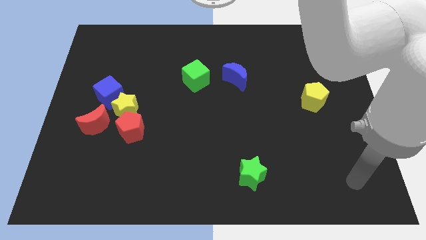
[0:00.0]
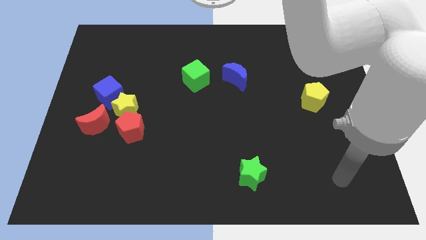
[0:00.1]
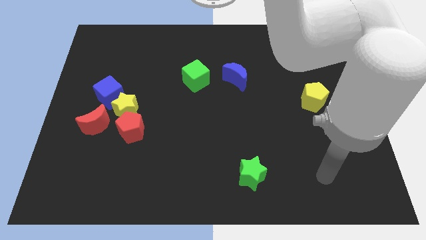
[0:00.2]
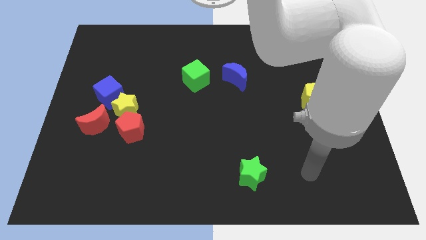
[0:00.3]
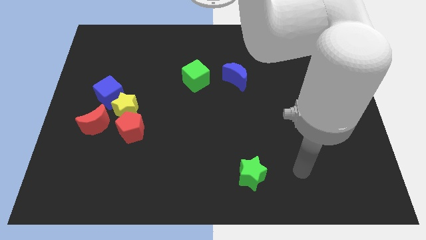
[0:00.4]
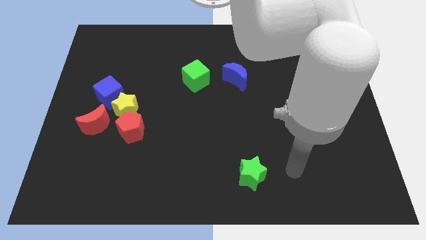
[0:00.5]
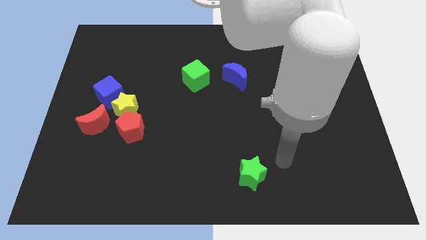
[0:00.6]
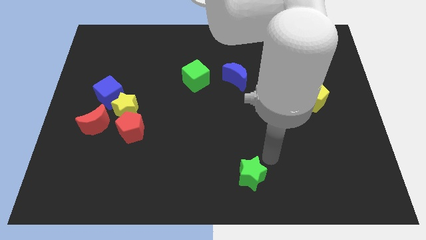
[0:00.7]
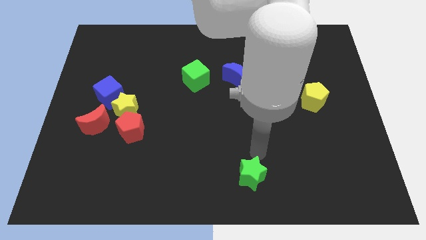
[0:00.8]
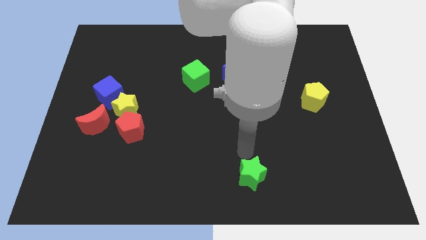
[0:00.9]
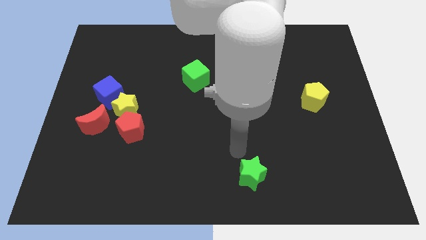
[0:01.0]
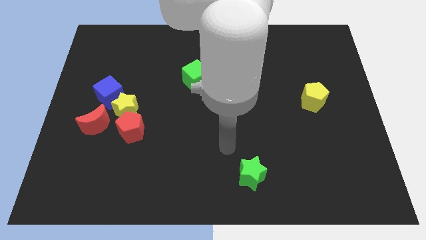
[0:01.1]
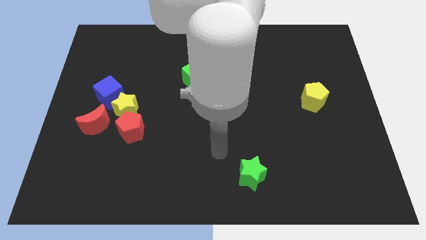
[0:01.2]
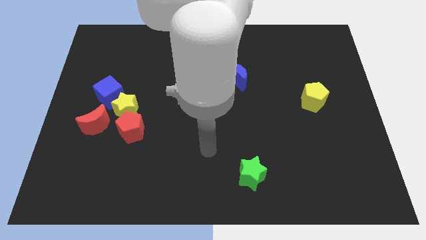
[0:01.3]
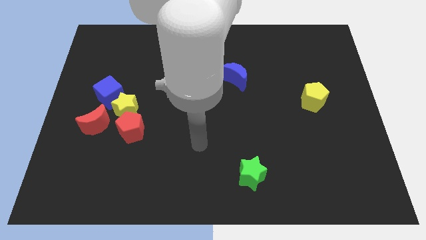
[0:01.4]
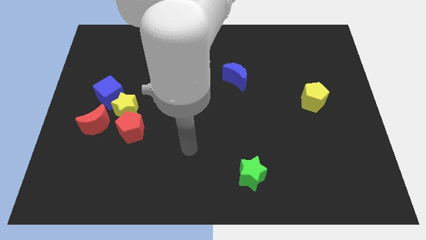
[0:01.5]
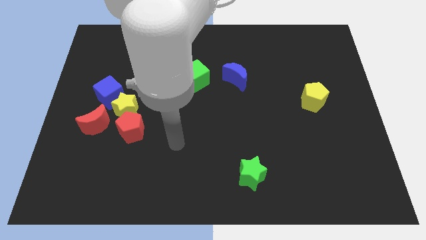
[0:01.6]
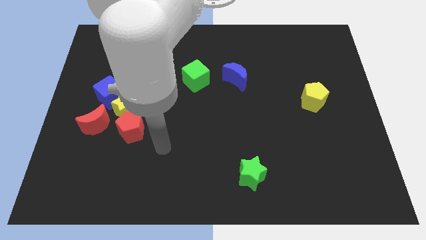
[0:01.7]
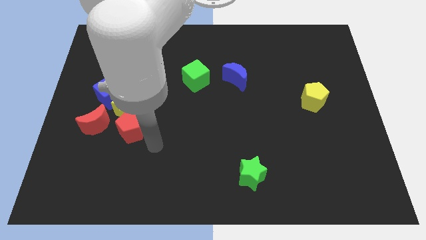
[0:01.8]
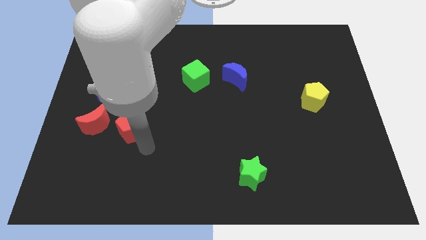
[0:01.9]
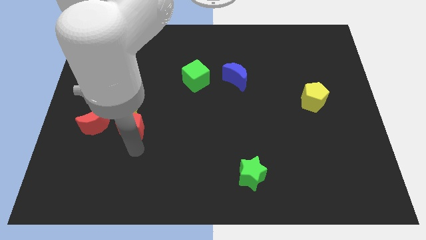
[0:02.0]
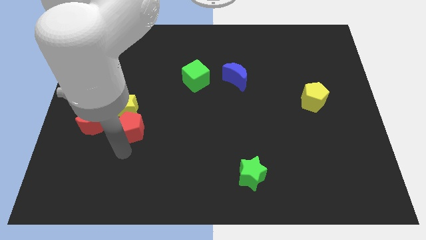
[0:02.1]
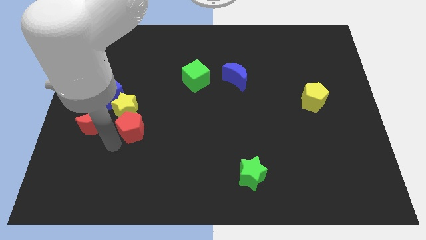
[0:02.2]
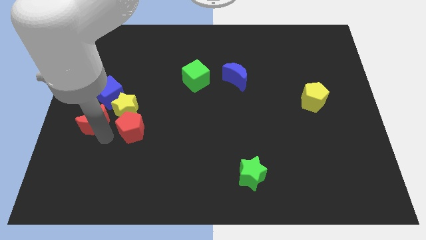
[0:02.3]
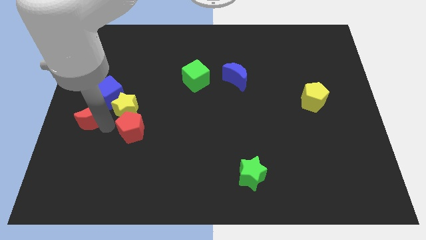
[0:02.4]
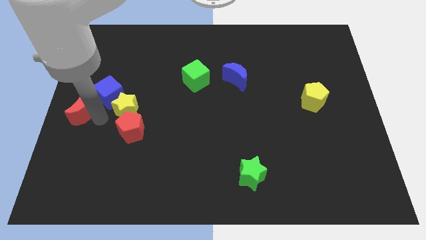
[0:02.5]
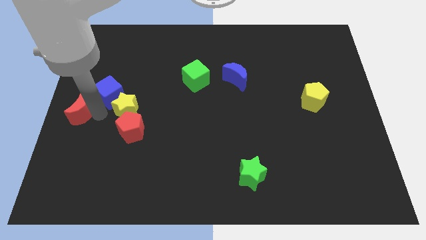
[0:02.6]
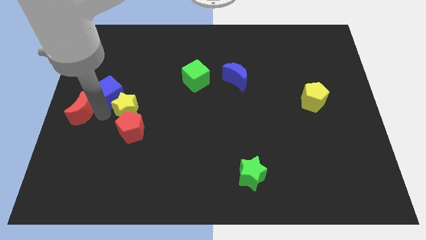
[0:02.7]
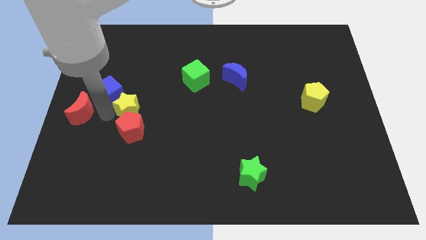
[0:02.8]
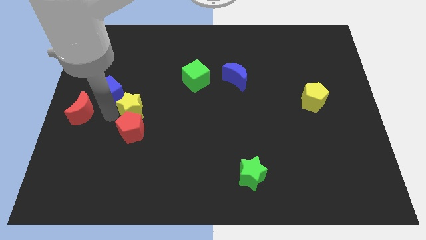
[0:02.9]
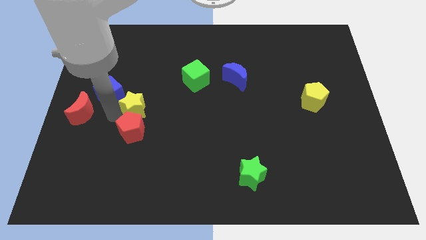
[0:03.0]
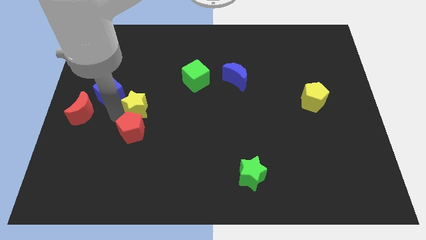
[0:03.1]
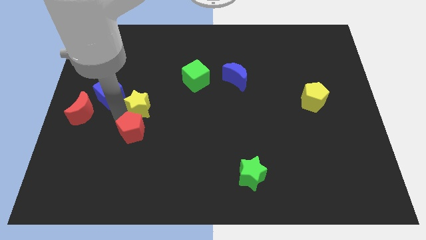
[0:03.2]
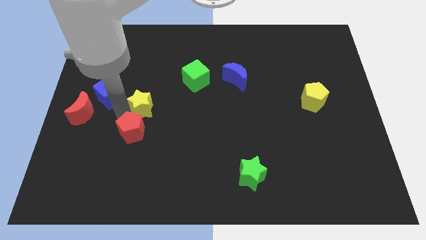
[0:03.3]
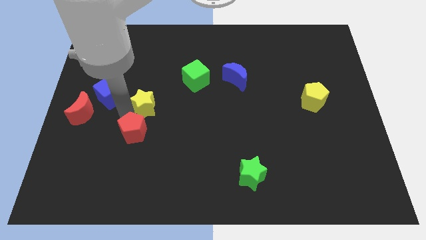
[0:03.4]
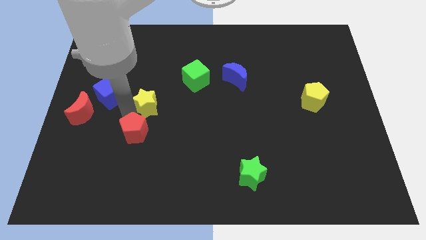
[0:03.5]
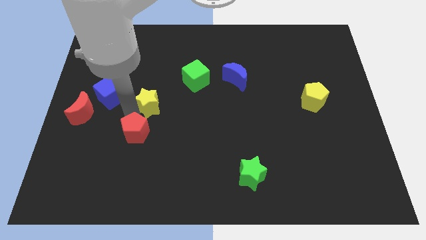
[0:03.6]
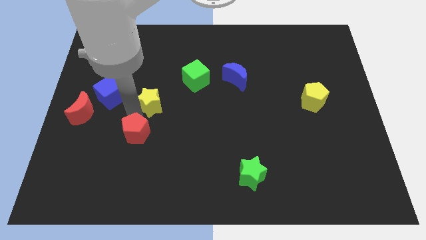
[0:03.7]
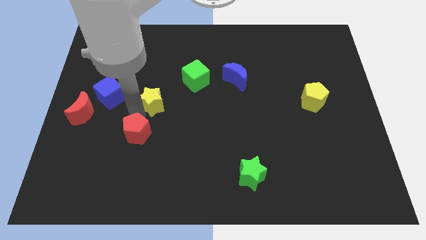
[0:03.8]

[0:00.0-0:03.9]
separate the yellow star from the red pentagon, blue cube, and red moon

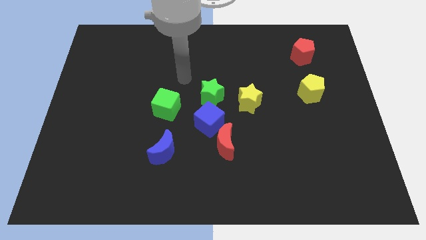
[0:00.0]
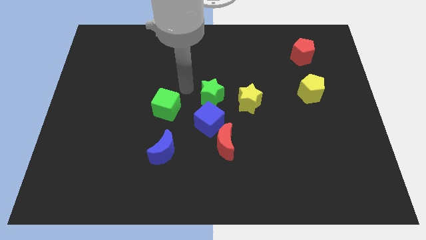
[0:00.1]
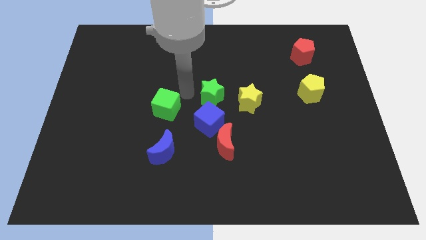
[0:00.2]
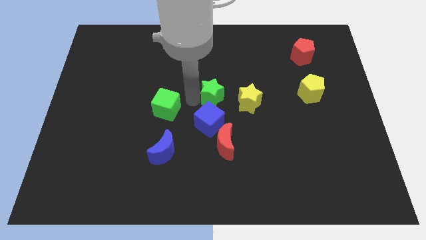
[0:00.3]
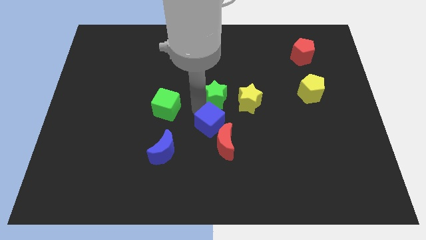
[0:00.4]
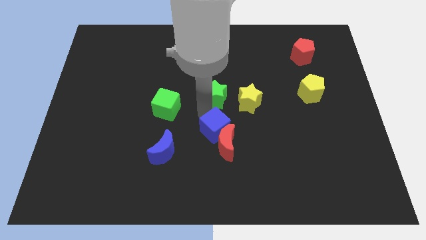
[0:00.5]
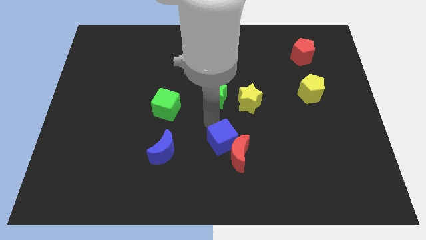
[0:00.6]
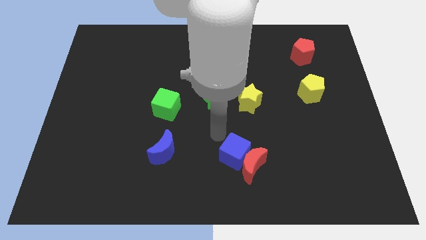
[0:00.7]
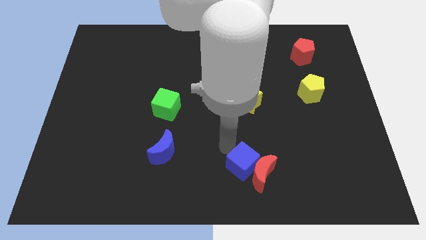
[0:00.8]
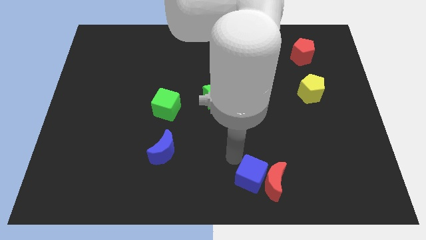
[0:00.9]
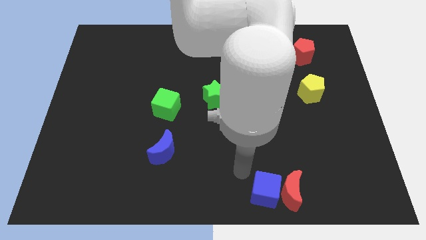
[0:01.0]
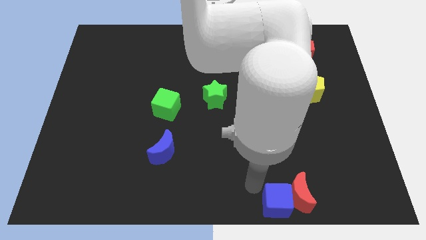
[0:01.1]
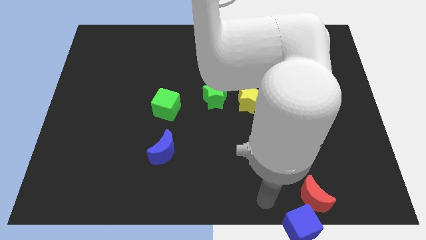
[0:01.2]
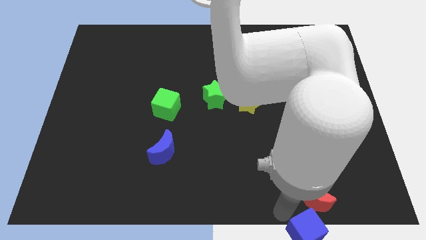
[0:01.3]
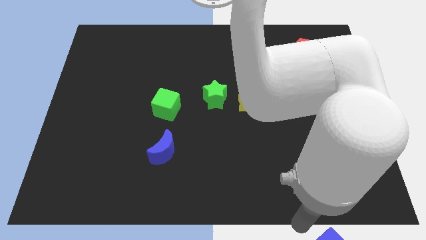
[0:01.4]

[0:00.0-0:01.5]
separate the red moon from the blue cube

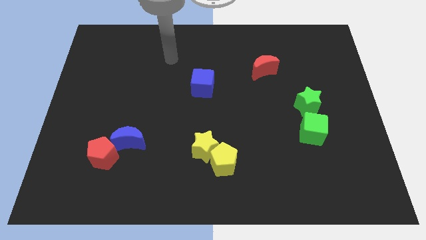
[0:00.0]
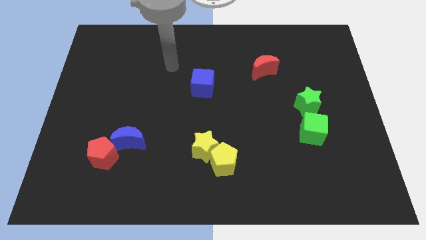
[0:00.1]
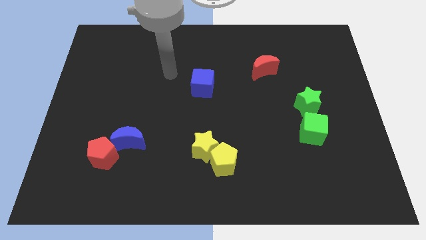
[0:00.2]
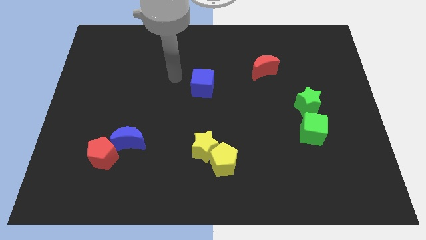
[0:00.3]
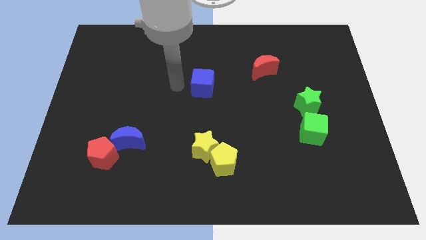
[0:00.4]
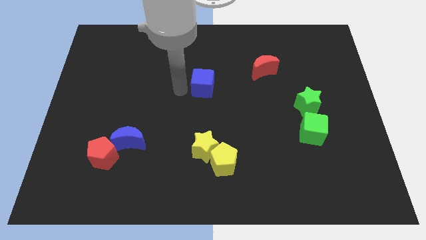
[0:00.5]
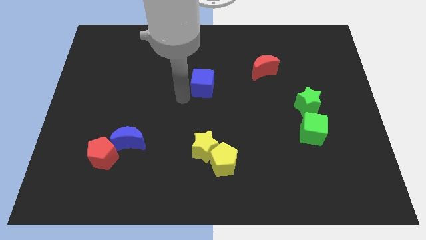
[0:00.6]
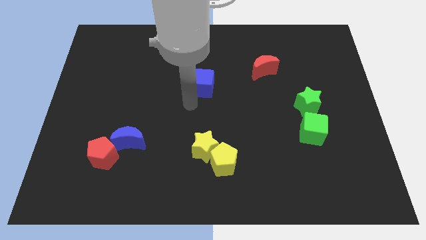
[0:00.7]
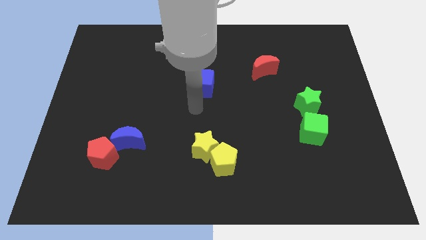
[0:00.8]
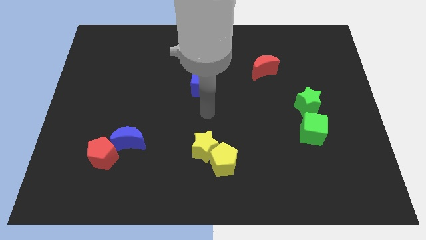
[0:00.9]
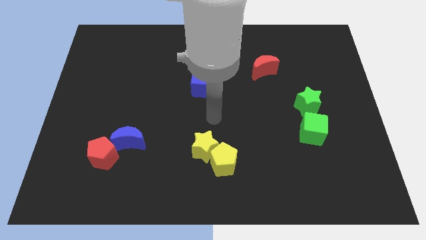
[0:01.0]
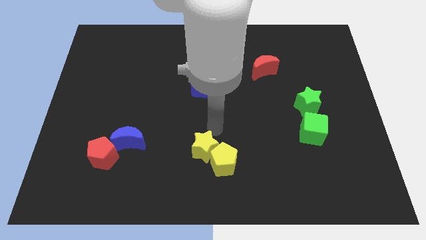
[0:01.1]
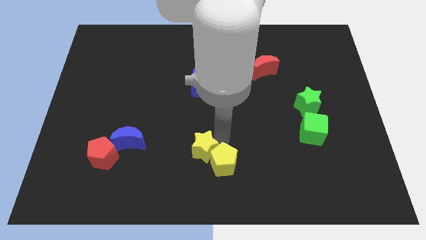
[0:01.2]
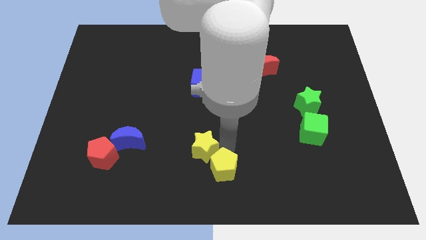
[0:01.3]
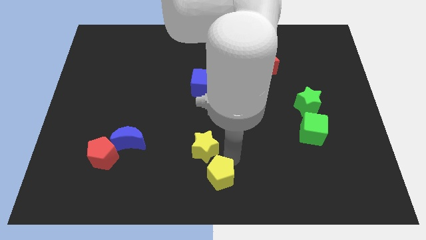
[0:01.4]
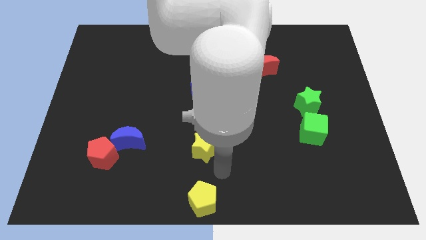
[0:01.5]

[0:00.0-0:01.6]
move the yellow star away from the yellow pentagon

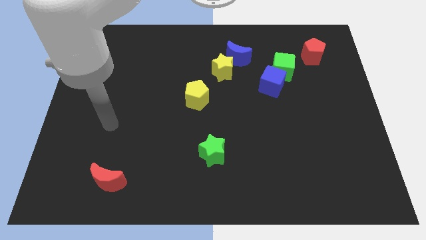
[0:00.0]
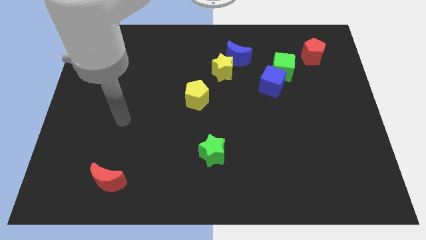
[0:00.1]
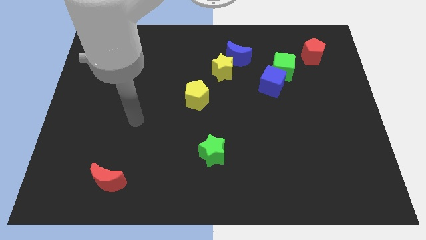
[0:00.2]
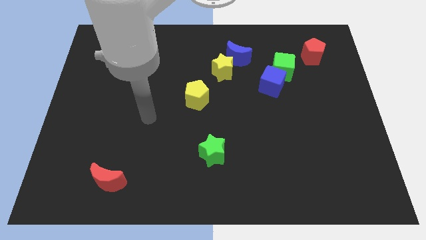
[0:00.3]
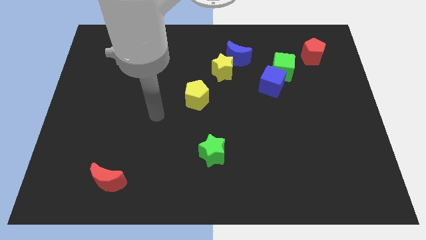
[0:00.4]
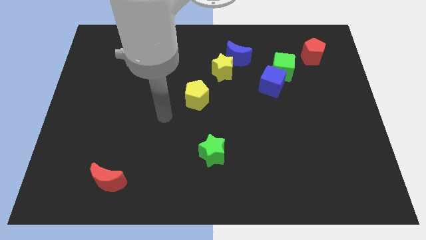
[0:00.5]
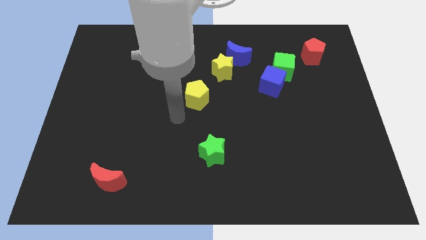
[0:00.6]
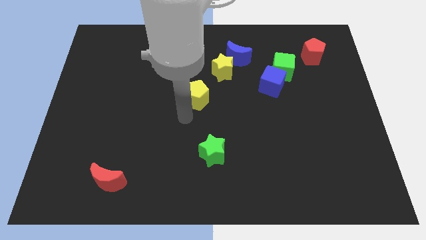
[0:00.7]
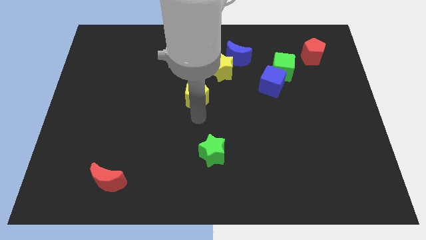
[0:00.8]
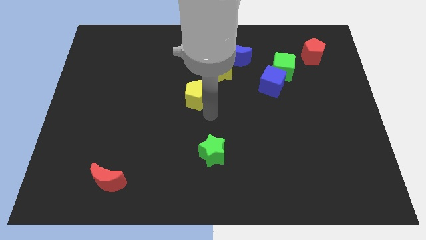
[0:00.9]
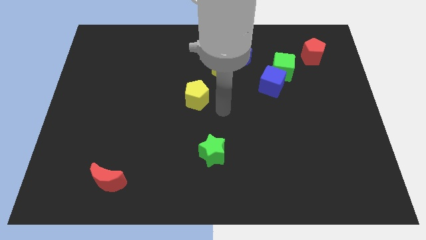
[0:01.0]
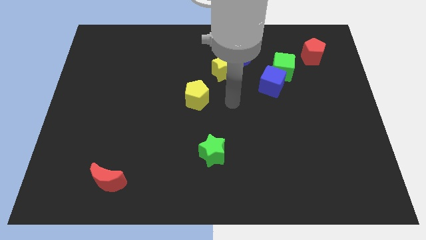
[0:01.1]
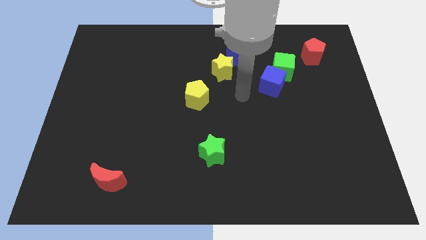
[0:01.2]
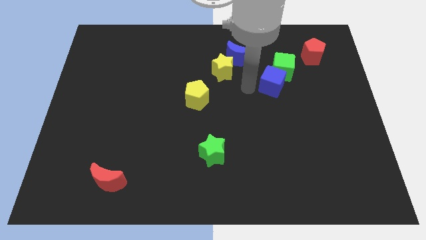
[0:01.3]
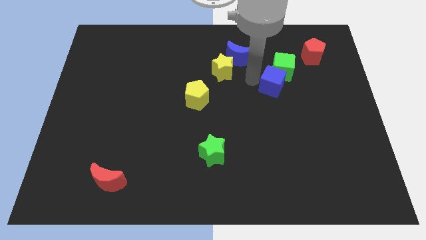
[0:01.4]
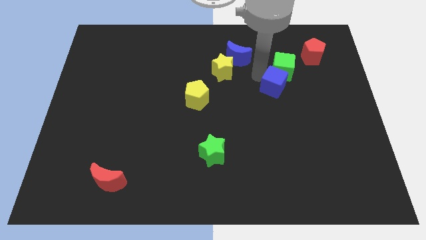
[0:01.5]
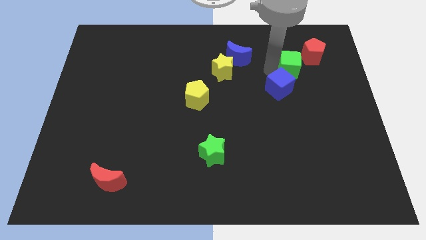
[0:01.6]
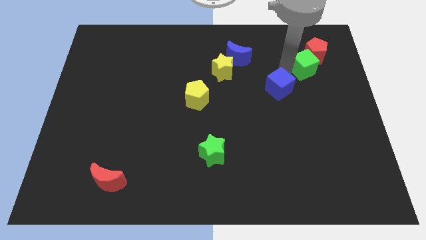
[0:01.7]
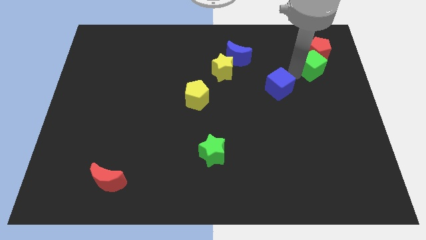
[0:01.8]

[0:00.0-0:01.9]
pull the blue cube apart from the green cube

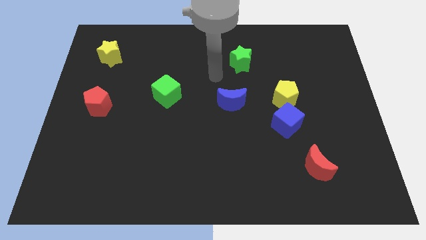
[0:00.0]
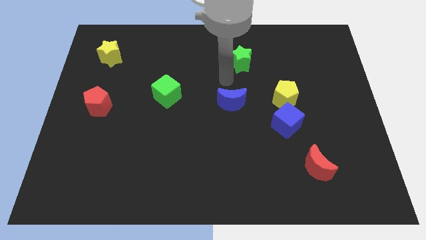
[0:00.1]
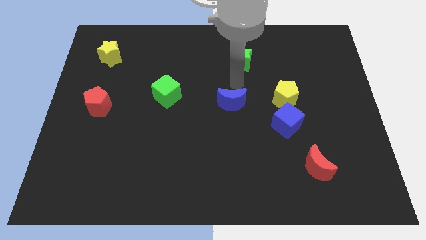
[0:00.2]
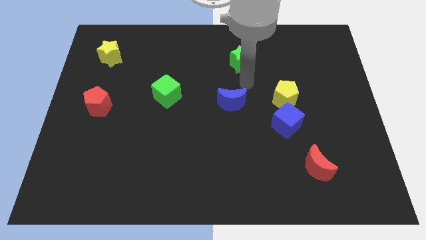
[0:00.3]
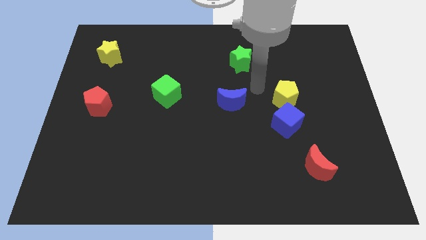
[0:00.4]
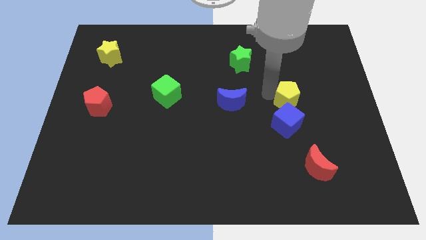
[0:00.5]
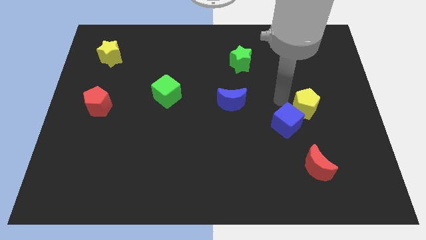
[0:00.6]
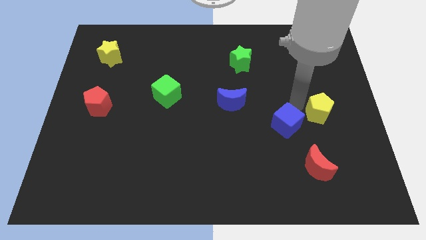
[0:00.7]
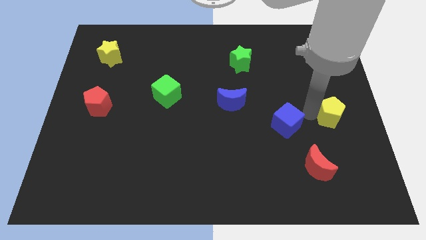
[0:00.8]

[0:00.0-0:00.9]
separate the blue cube from the yellow pentagon
